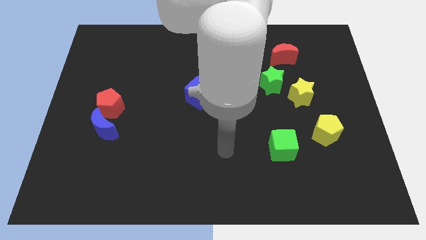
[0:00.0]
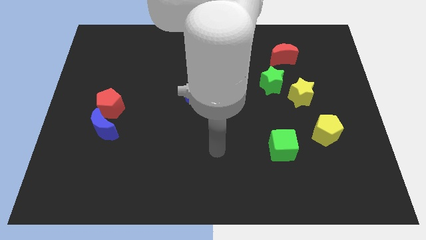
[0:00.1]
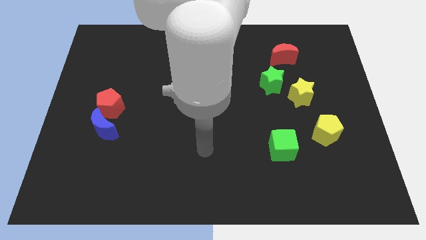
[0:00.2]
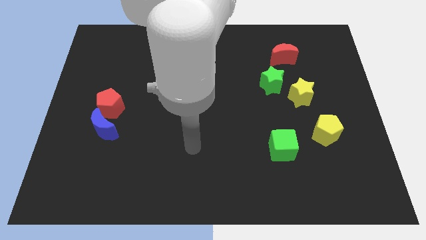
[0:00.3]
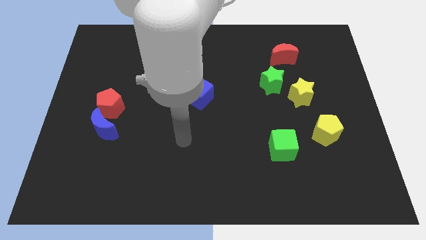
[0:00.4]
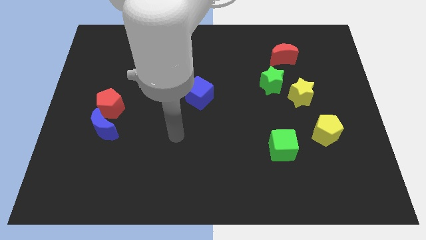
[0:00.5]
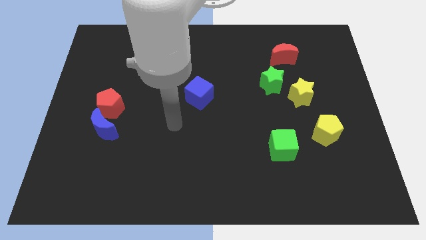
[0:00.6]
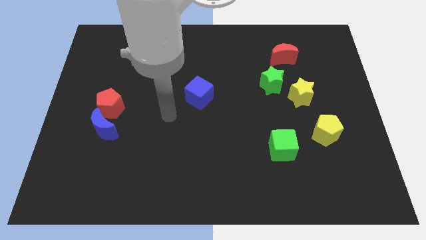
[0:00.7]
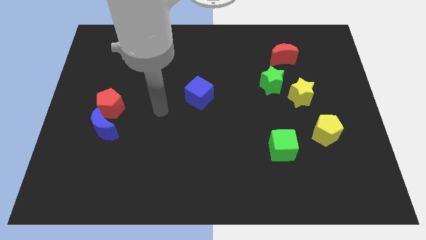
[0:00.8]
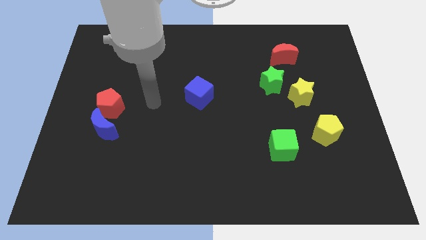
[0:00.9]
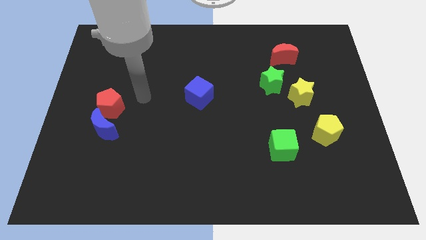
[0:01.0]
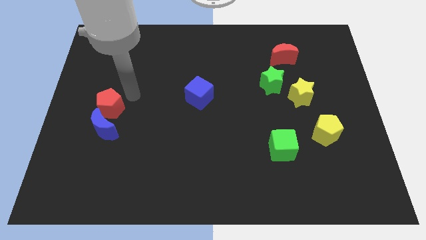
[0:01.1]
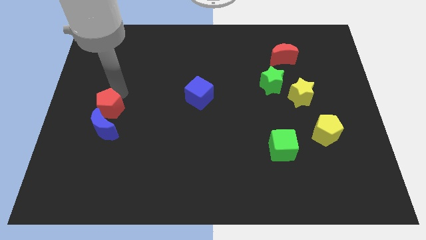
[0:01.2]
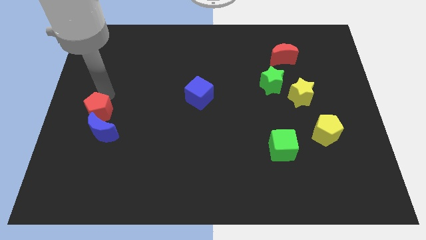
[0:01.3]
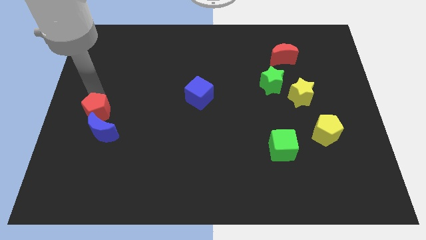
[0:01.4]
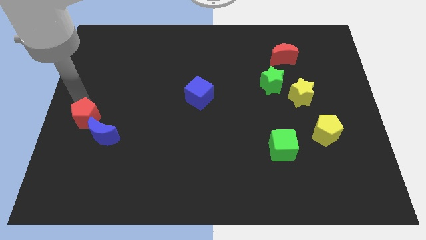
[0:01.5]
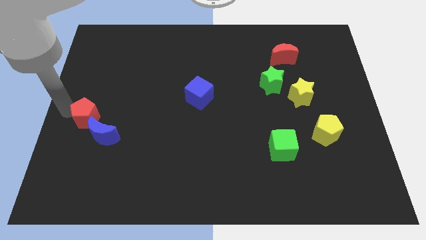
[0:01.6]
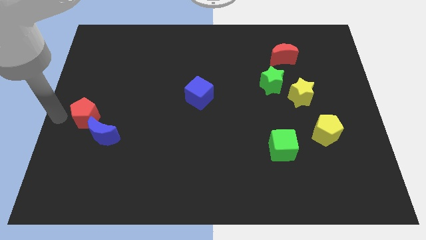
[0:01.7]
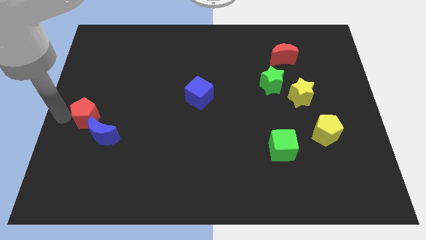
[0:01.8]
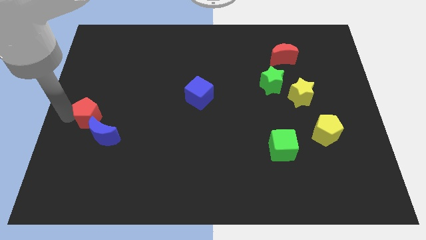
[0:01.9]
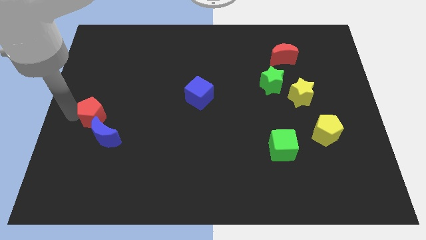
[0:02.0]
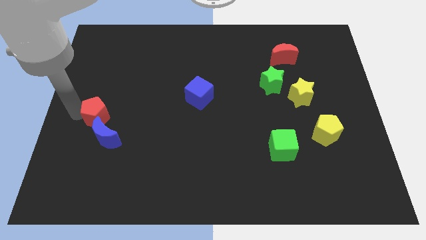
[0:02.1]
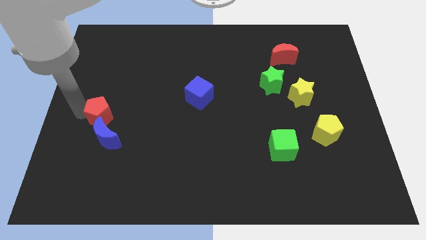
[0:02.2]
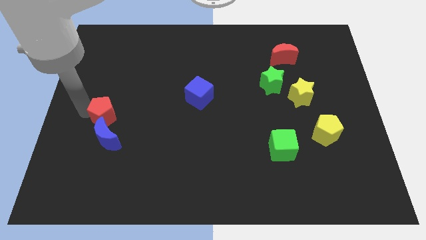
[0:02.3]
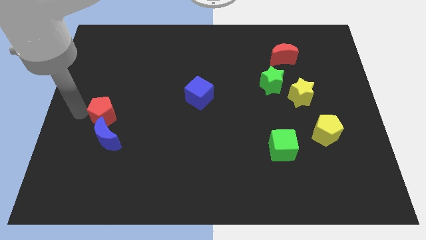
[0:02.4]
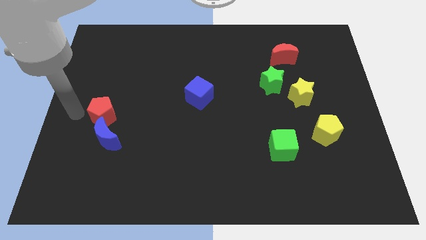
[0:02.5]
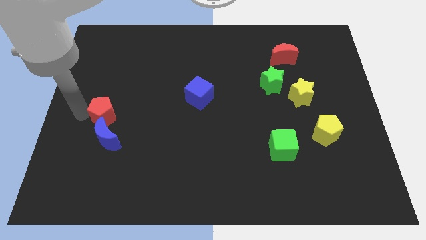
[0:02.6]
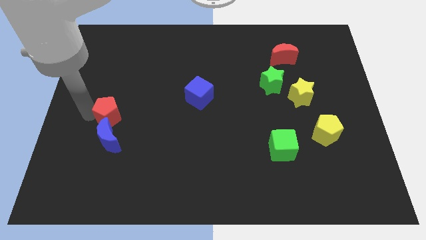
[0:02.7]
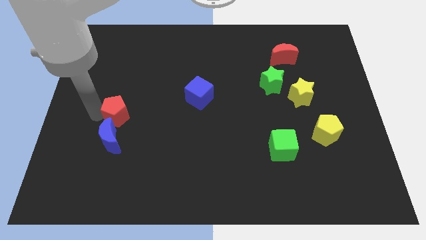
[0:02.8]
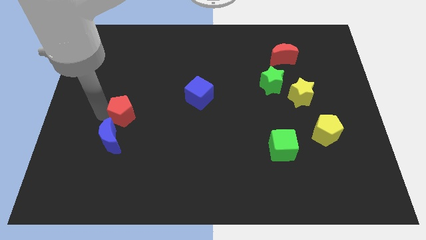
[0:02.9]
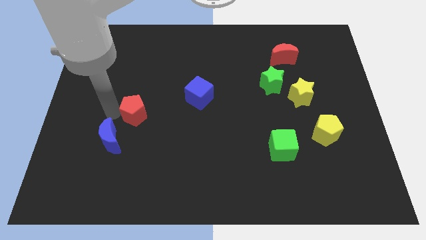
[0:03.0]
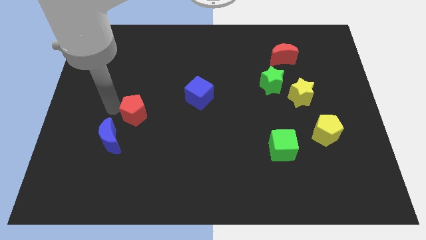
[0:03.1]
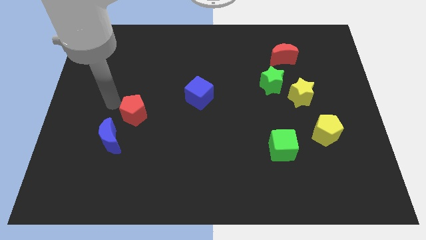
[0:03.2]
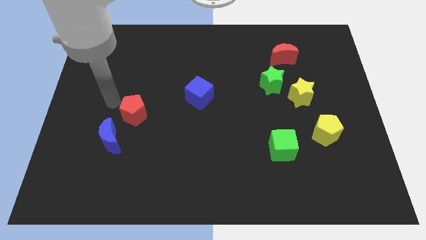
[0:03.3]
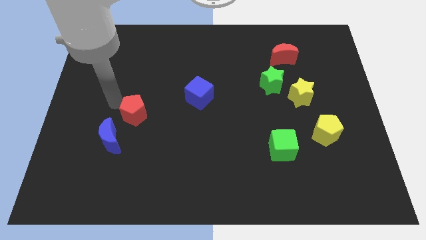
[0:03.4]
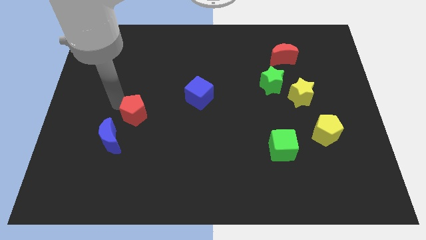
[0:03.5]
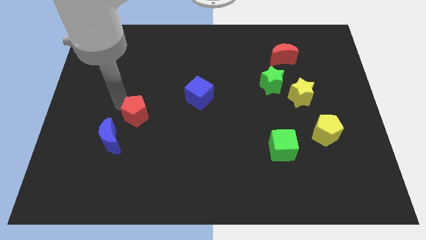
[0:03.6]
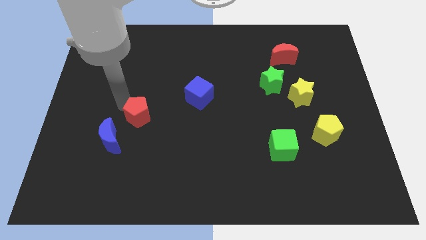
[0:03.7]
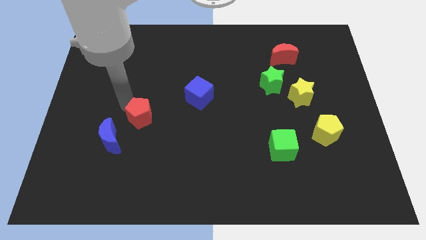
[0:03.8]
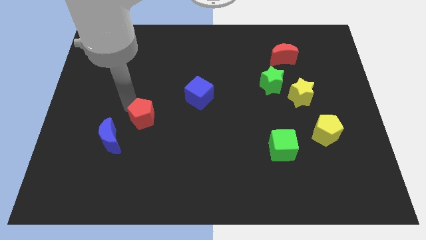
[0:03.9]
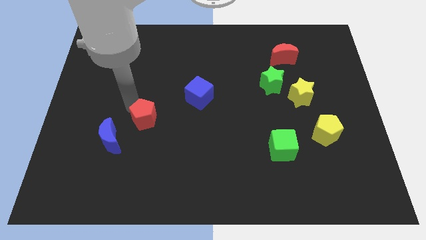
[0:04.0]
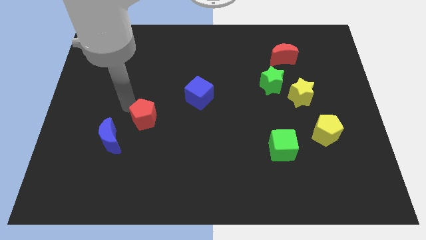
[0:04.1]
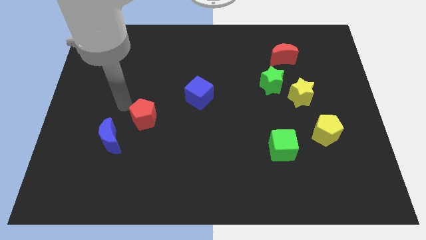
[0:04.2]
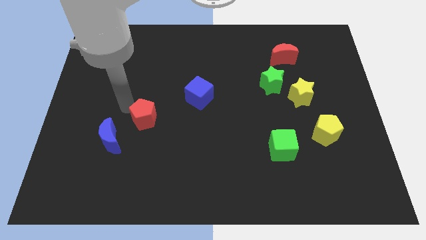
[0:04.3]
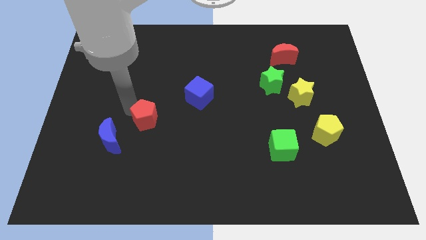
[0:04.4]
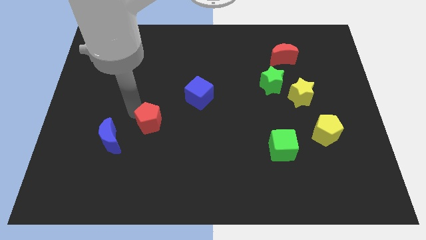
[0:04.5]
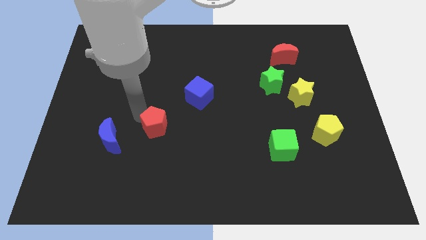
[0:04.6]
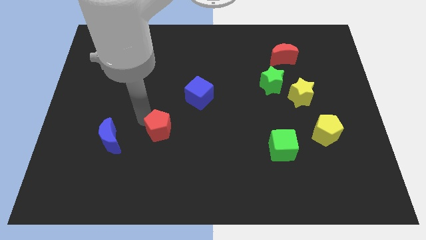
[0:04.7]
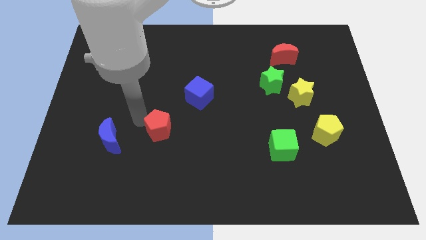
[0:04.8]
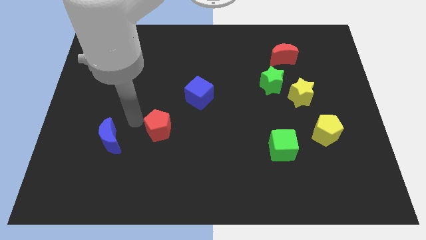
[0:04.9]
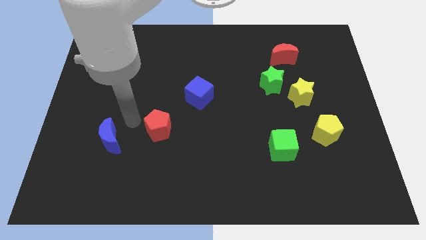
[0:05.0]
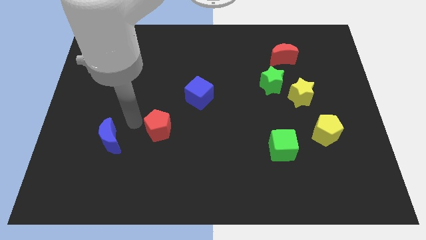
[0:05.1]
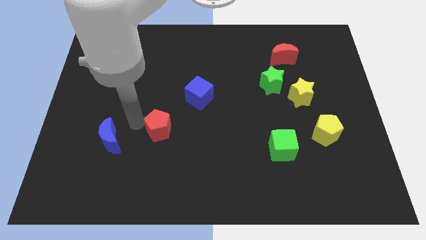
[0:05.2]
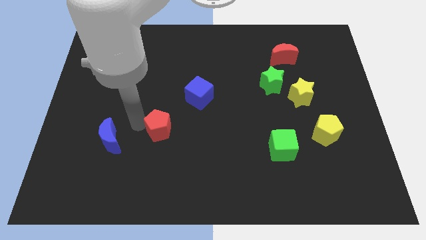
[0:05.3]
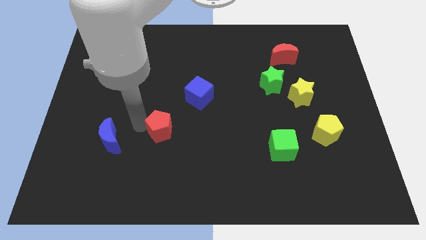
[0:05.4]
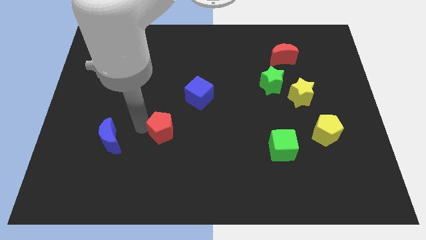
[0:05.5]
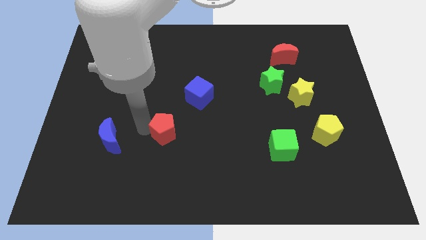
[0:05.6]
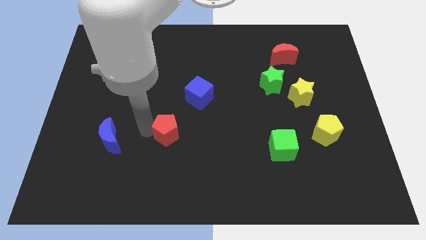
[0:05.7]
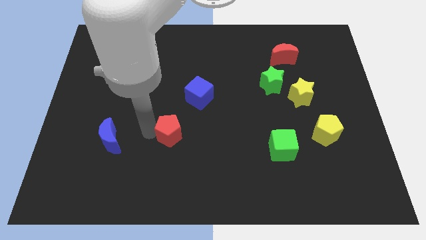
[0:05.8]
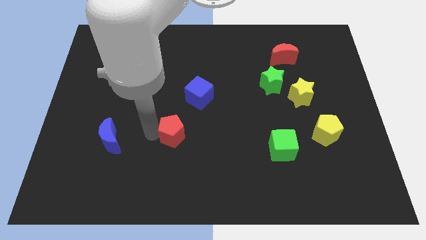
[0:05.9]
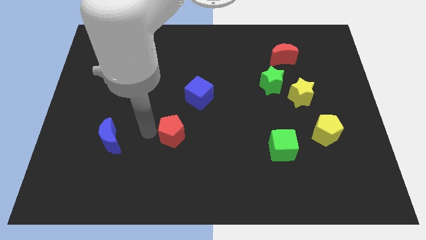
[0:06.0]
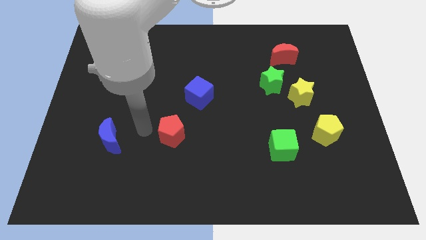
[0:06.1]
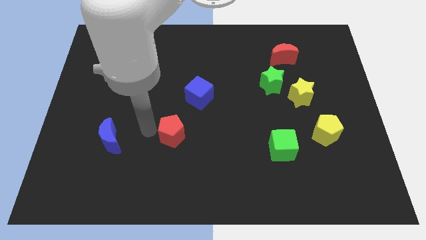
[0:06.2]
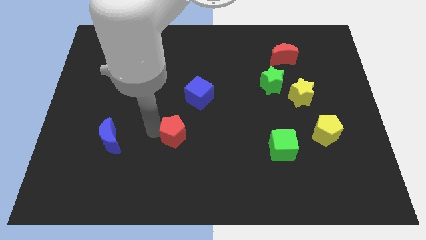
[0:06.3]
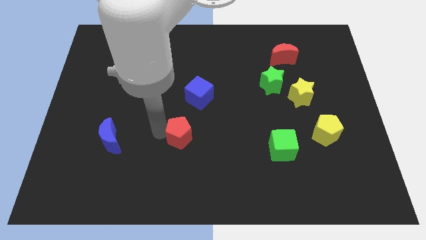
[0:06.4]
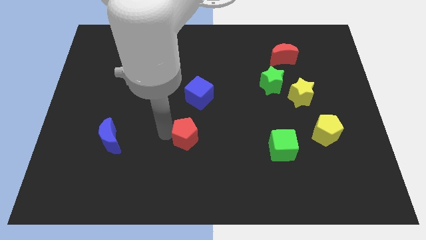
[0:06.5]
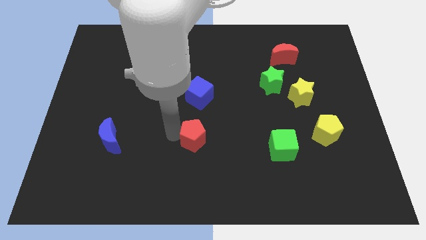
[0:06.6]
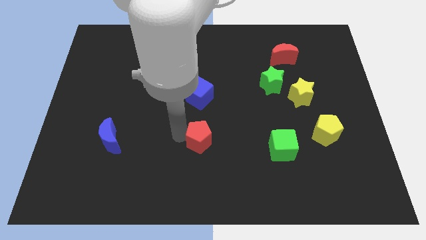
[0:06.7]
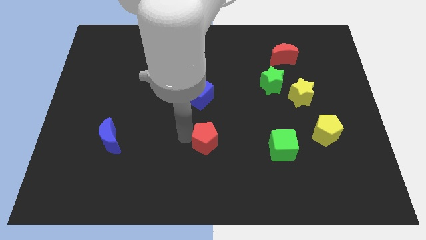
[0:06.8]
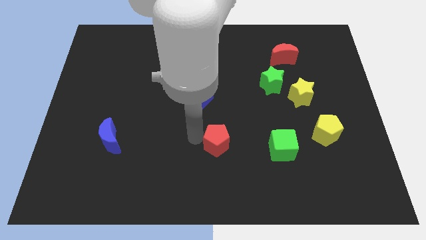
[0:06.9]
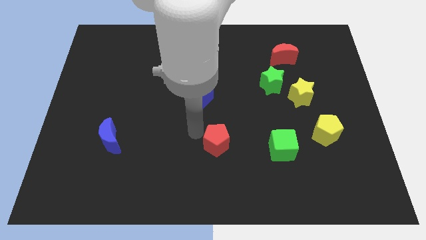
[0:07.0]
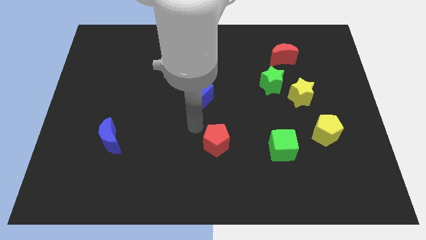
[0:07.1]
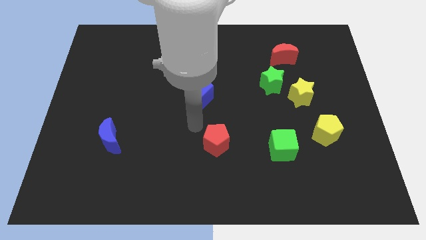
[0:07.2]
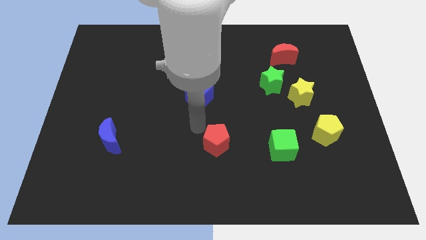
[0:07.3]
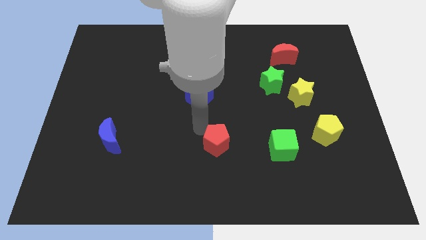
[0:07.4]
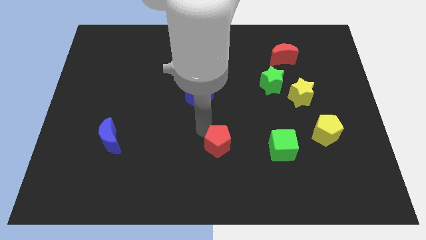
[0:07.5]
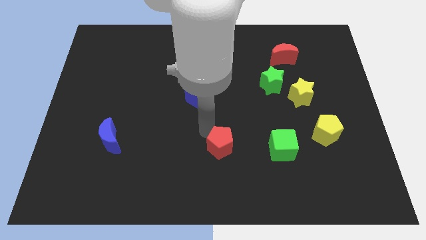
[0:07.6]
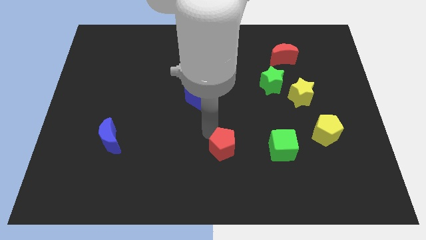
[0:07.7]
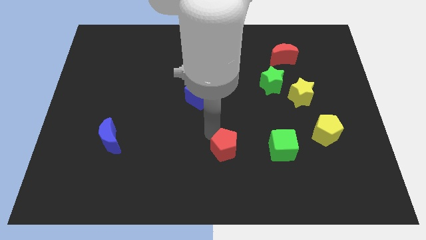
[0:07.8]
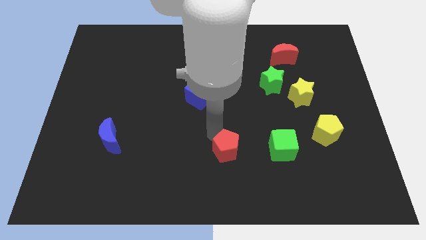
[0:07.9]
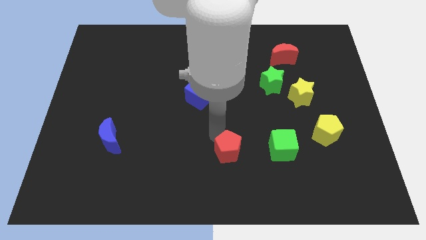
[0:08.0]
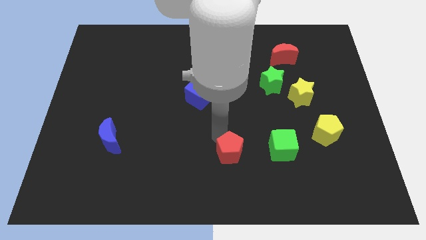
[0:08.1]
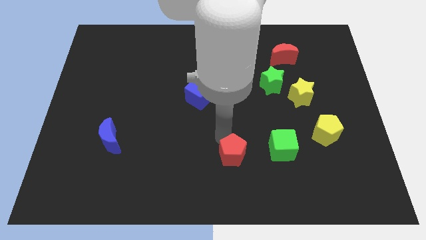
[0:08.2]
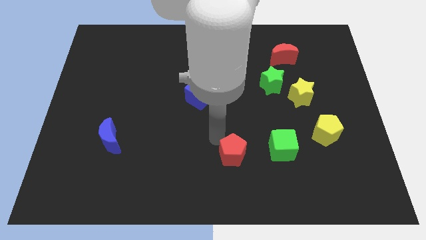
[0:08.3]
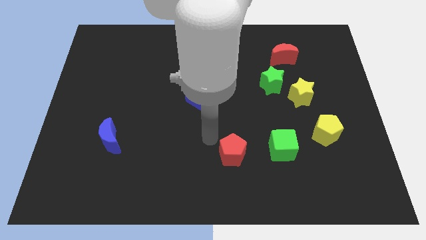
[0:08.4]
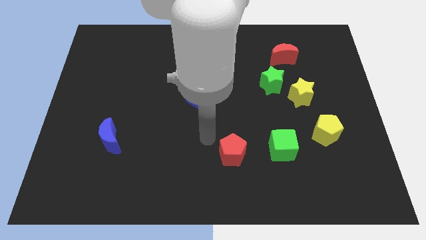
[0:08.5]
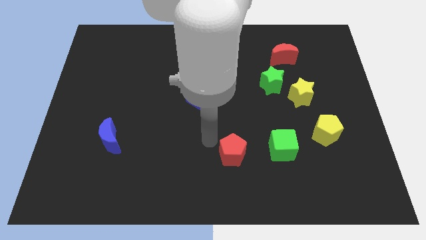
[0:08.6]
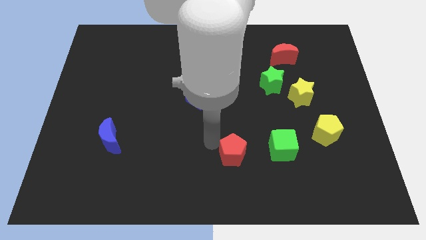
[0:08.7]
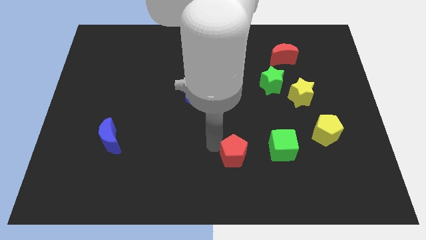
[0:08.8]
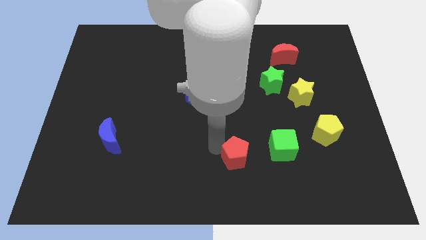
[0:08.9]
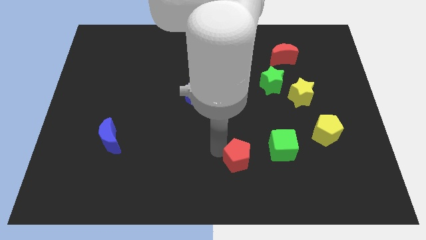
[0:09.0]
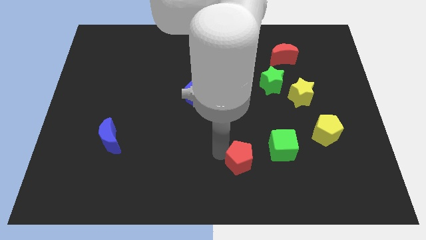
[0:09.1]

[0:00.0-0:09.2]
move the red pentagon to the bottom left of the green cube
